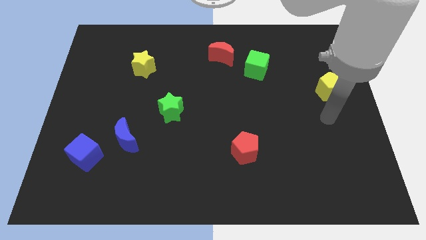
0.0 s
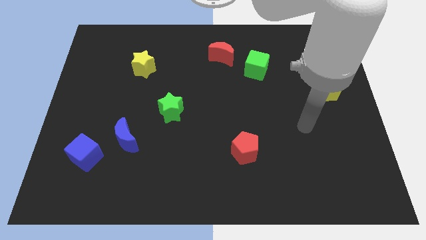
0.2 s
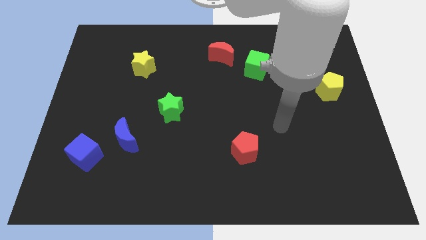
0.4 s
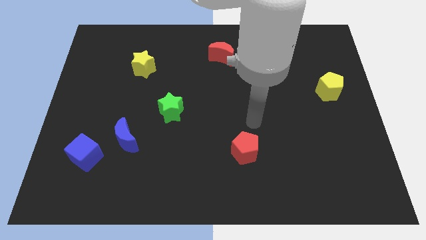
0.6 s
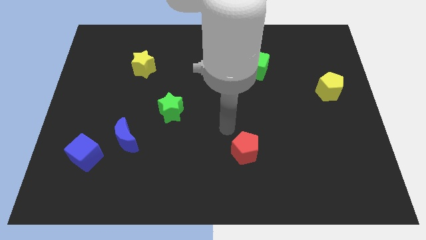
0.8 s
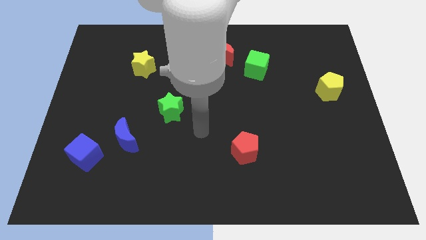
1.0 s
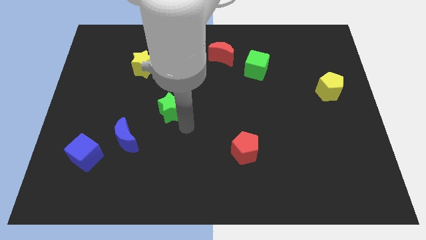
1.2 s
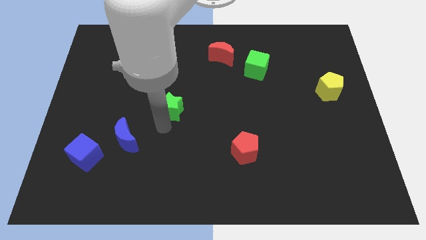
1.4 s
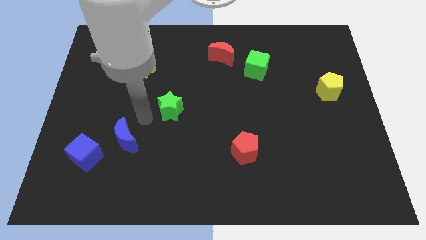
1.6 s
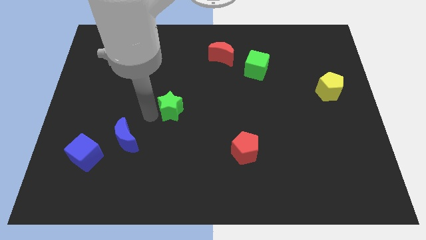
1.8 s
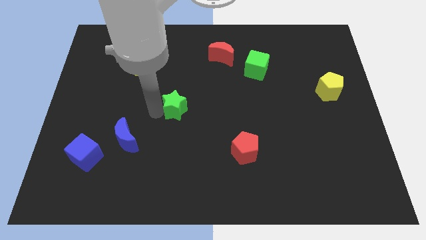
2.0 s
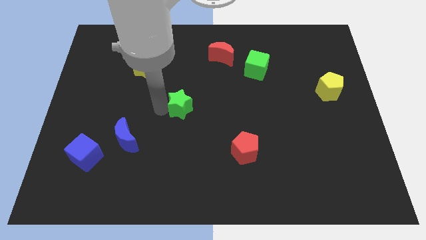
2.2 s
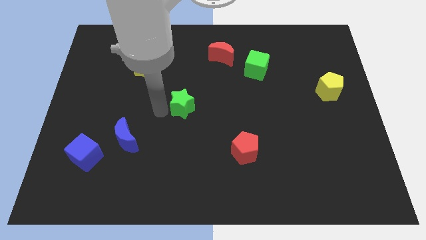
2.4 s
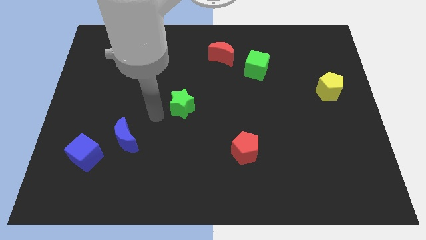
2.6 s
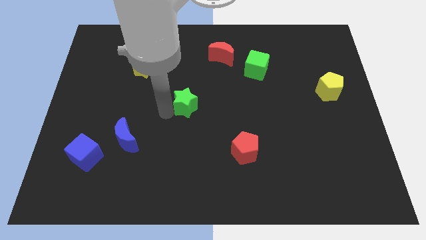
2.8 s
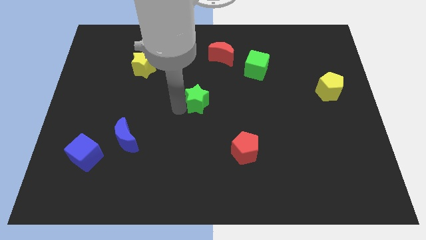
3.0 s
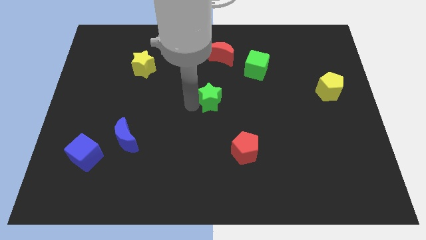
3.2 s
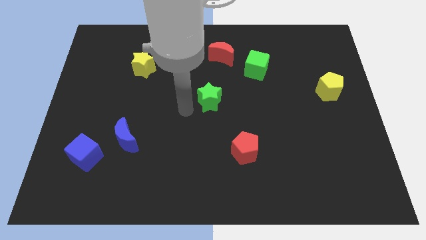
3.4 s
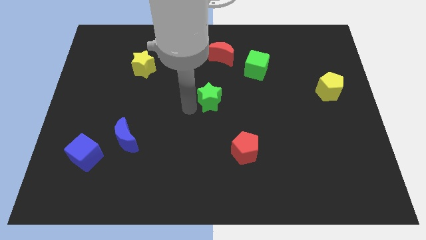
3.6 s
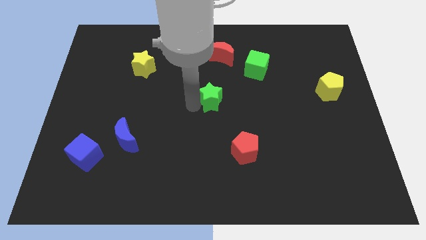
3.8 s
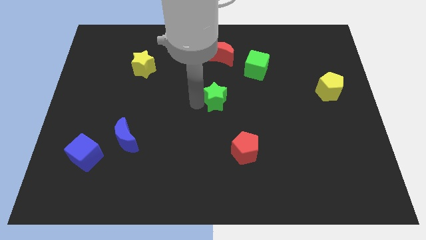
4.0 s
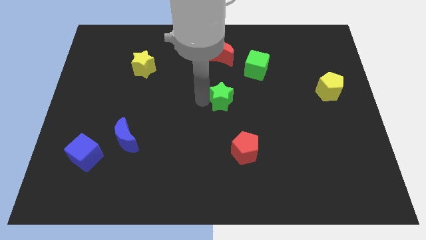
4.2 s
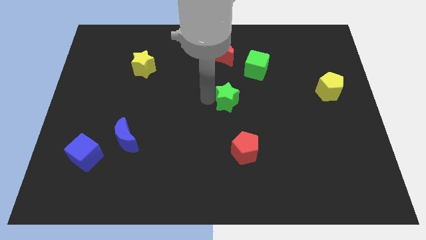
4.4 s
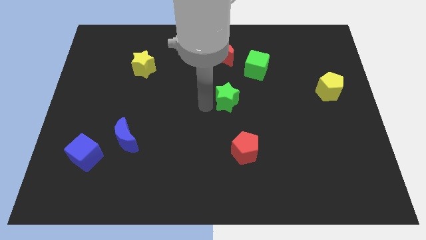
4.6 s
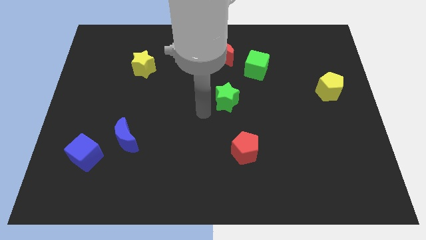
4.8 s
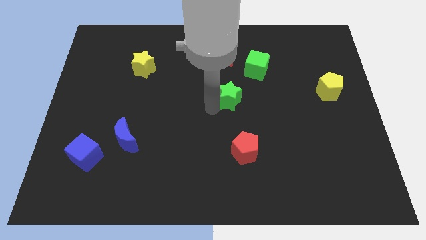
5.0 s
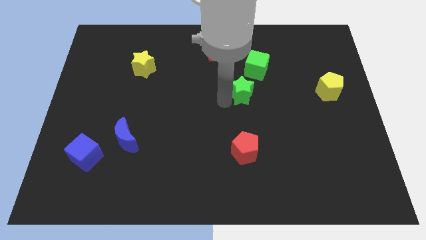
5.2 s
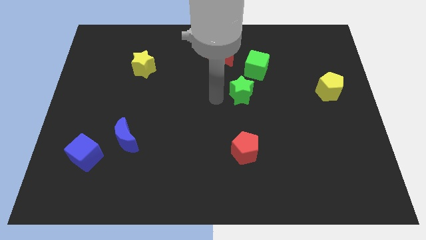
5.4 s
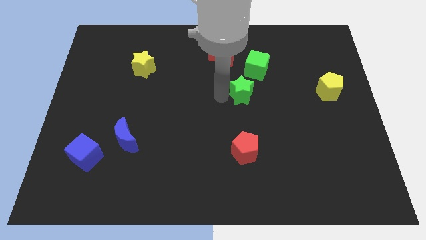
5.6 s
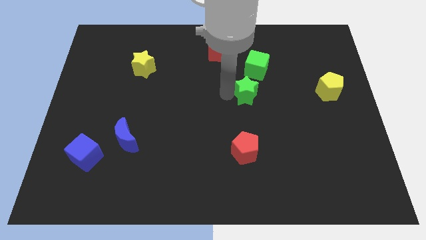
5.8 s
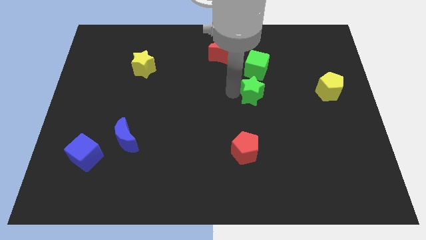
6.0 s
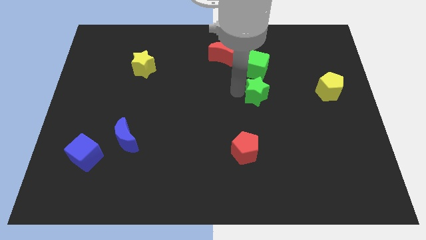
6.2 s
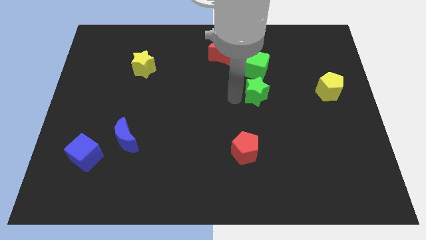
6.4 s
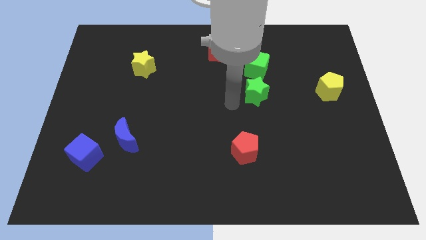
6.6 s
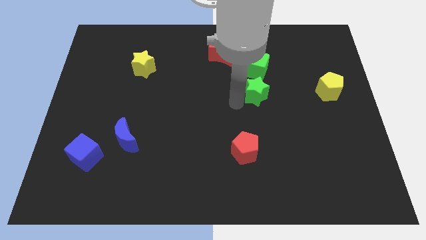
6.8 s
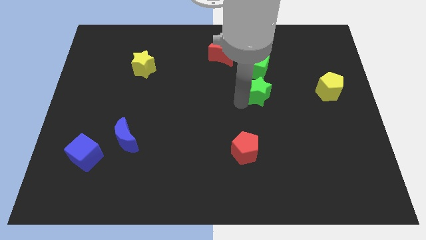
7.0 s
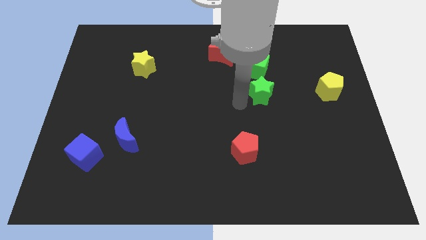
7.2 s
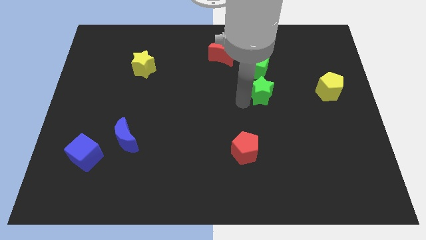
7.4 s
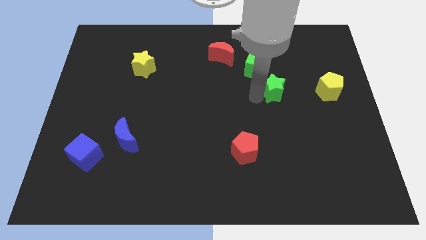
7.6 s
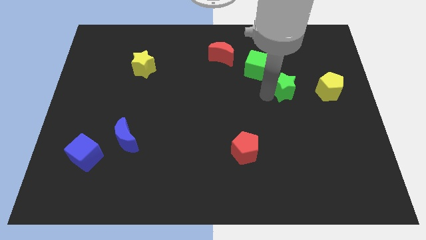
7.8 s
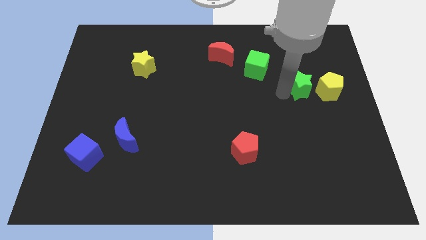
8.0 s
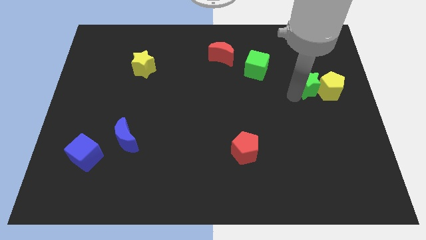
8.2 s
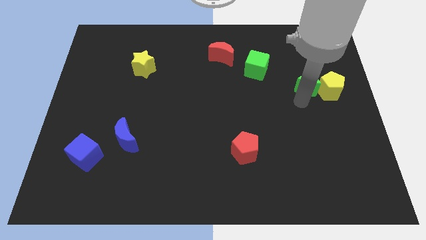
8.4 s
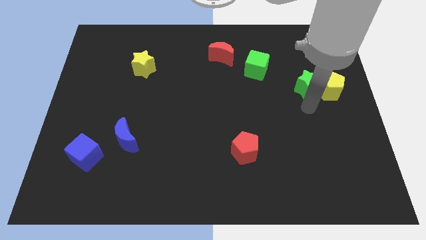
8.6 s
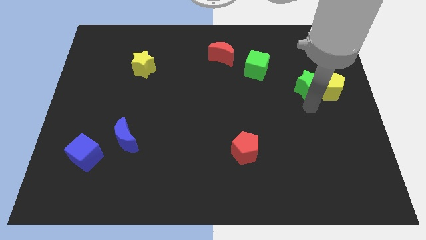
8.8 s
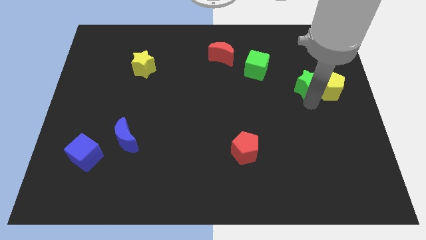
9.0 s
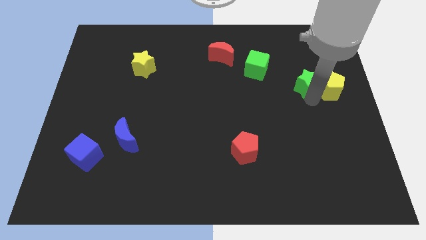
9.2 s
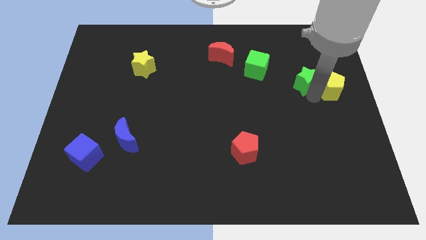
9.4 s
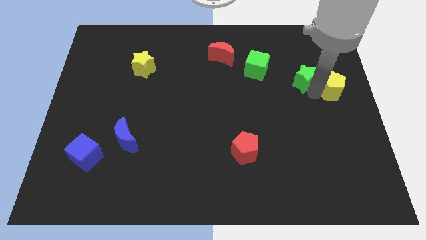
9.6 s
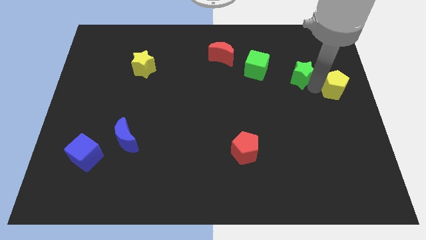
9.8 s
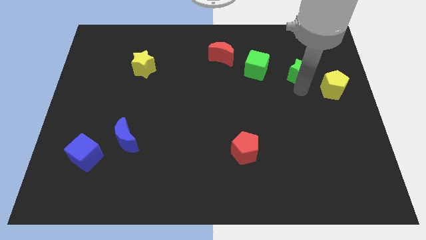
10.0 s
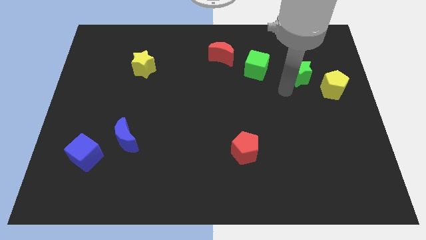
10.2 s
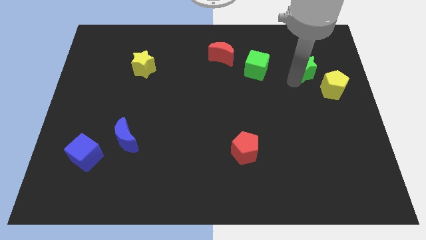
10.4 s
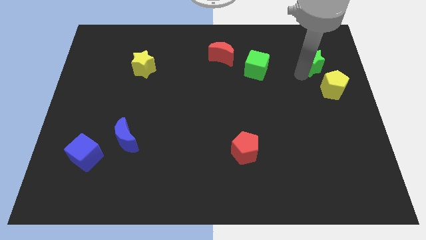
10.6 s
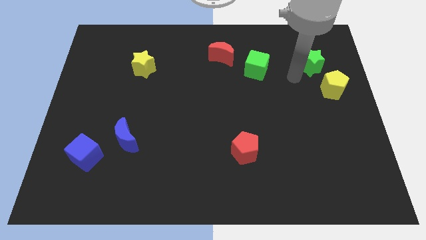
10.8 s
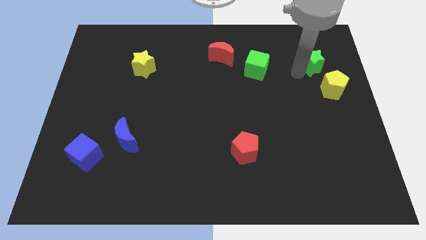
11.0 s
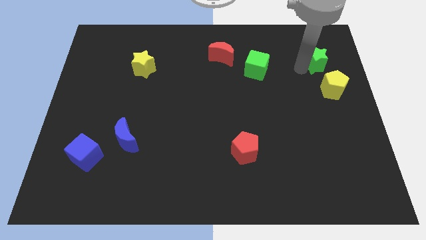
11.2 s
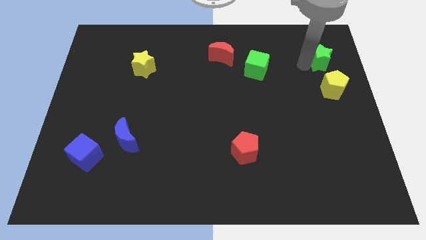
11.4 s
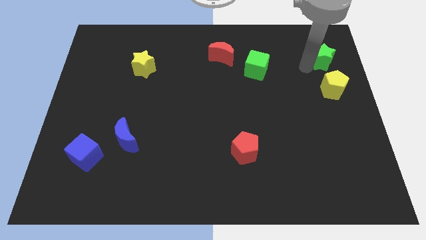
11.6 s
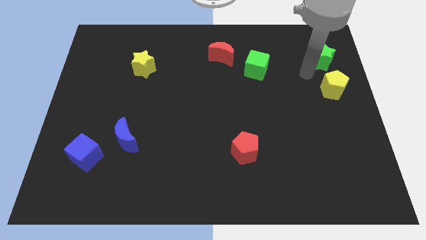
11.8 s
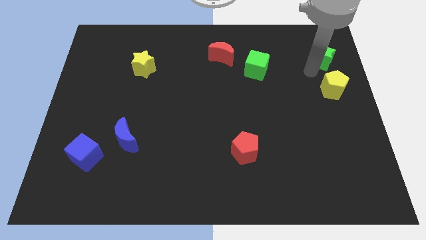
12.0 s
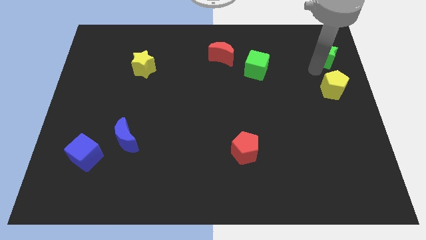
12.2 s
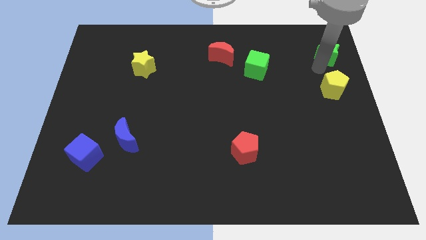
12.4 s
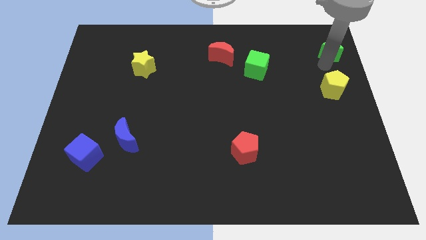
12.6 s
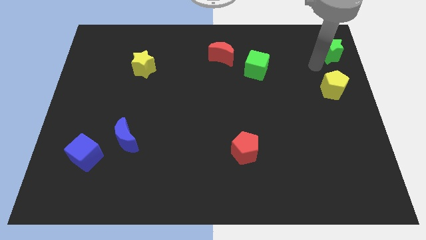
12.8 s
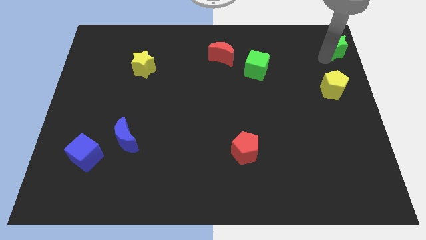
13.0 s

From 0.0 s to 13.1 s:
slide the green star to the upper right corner
